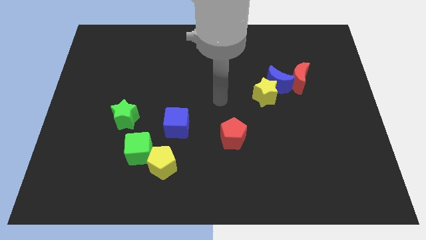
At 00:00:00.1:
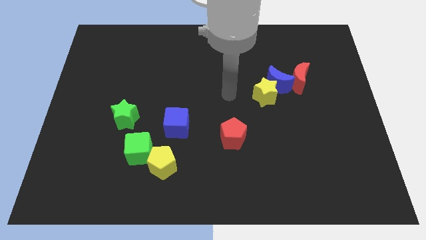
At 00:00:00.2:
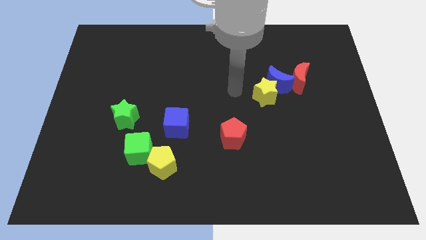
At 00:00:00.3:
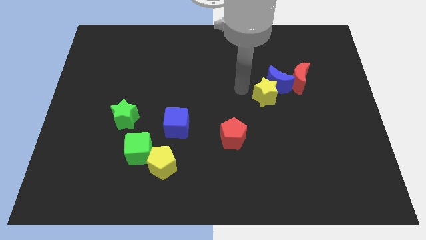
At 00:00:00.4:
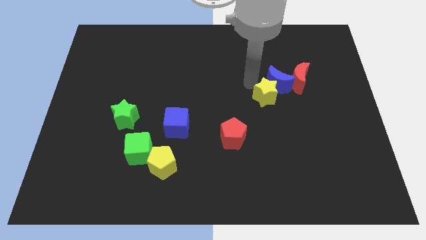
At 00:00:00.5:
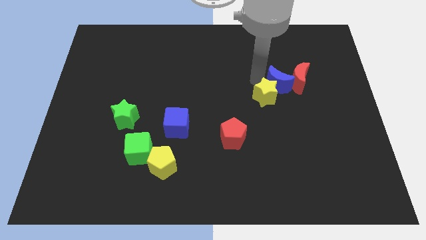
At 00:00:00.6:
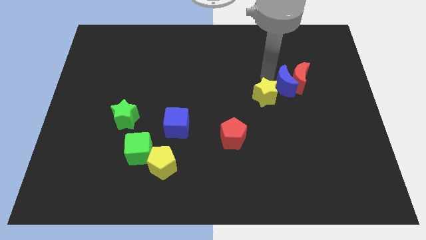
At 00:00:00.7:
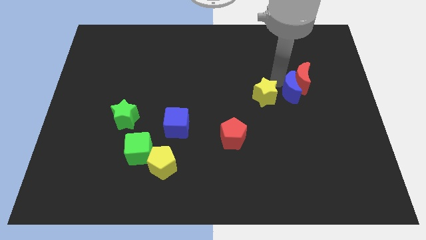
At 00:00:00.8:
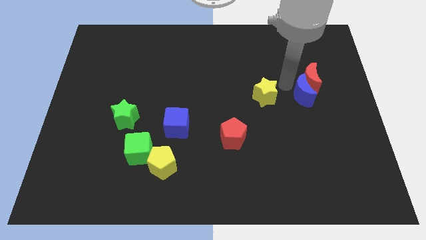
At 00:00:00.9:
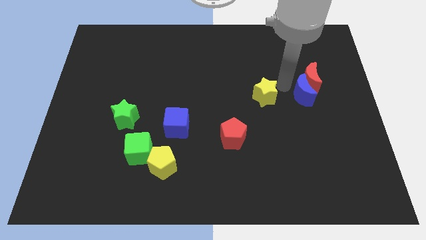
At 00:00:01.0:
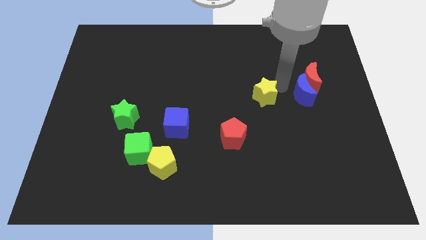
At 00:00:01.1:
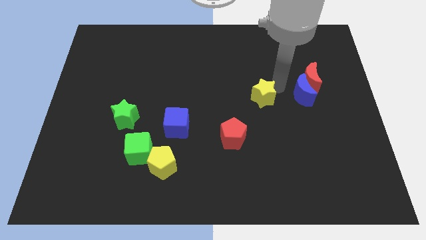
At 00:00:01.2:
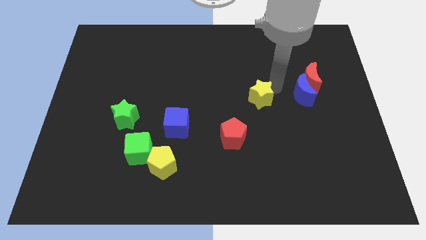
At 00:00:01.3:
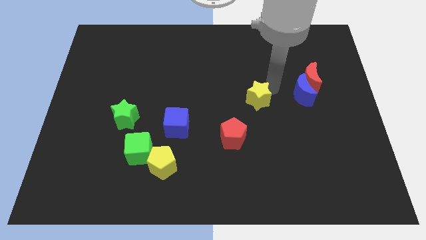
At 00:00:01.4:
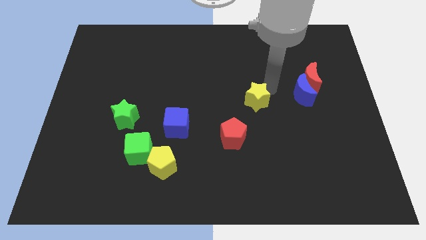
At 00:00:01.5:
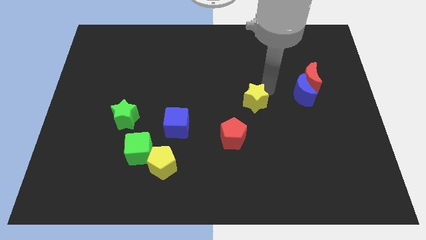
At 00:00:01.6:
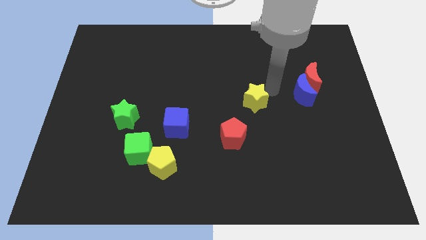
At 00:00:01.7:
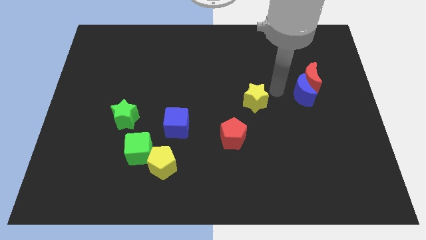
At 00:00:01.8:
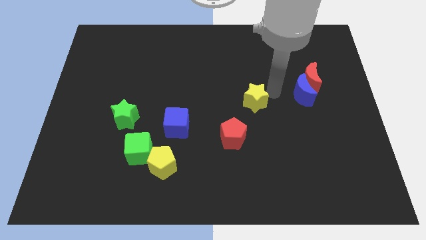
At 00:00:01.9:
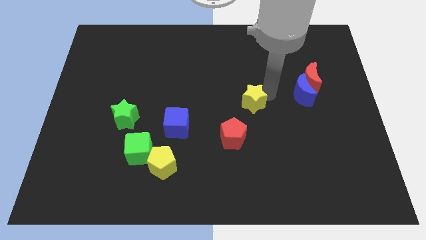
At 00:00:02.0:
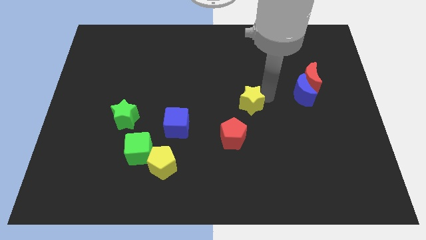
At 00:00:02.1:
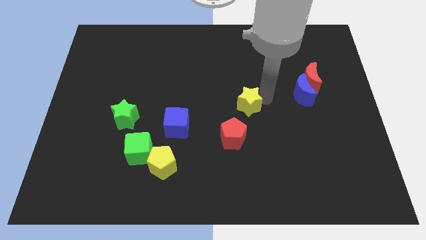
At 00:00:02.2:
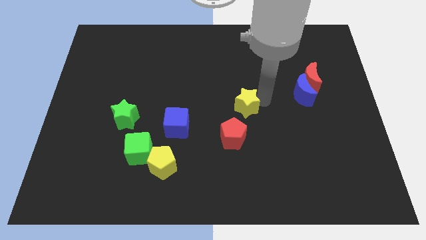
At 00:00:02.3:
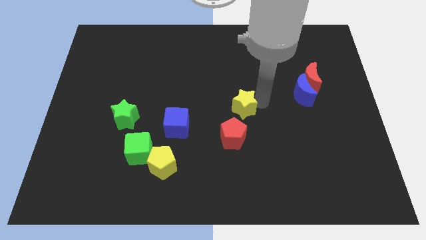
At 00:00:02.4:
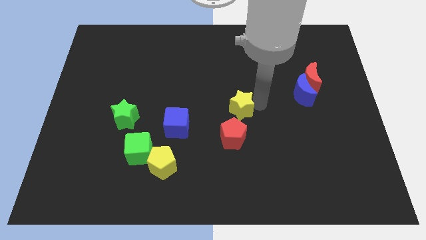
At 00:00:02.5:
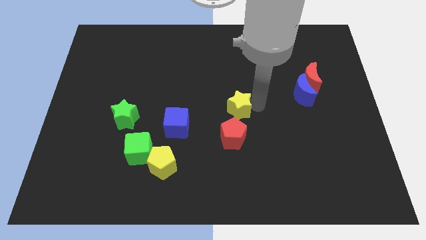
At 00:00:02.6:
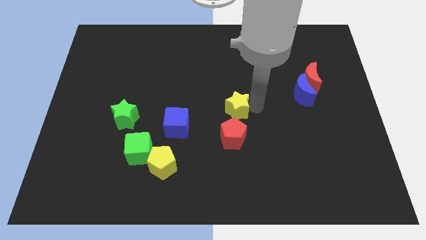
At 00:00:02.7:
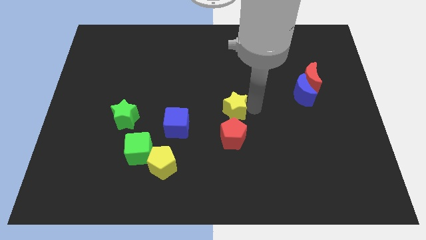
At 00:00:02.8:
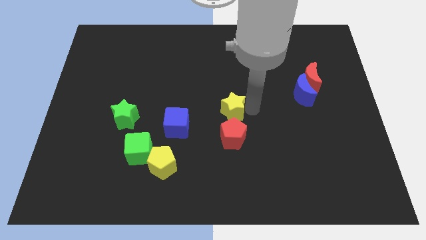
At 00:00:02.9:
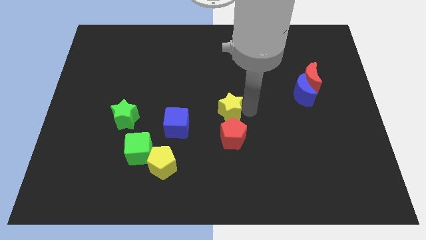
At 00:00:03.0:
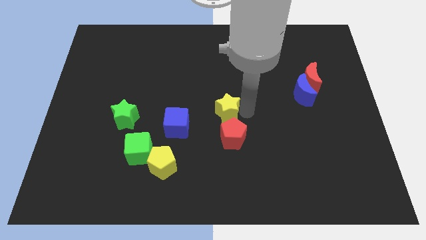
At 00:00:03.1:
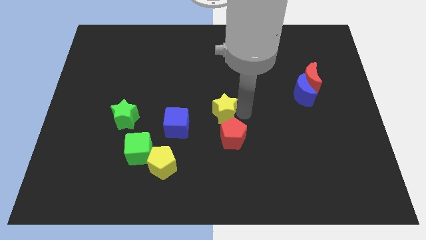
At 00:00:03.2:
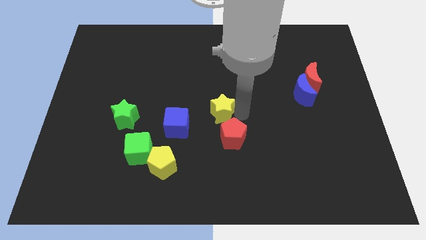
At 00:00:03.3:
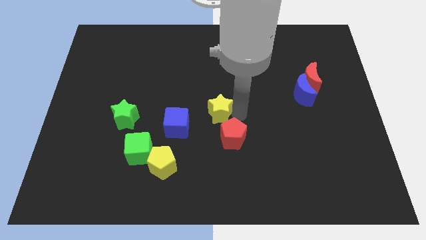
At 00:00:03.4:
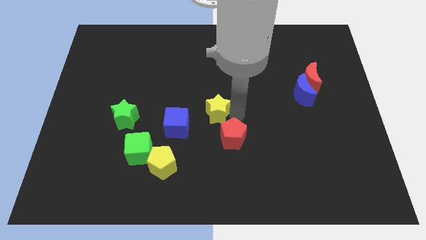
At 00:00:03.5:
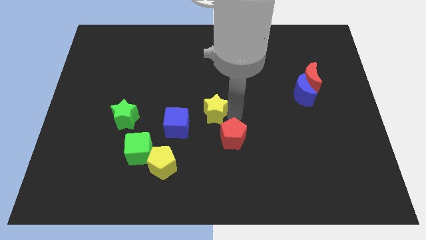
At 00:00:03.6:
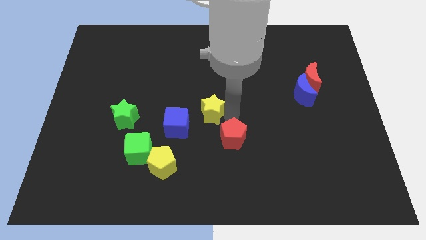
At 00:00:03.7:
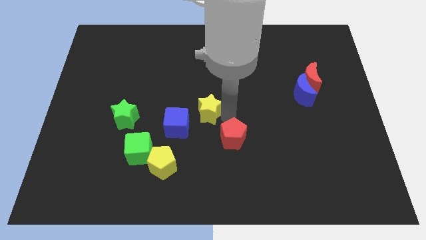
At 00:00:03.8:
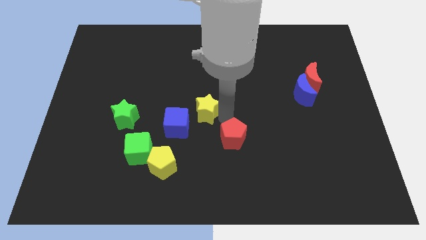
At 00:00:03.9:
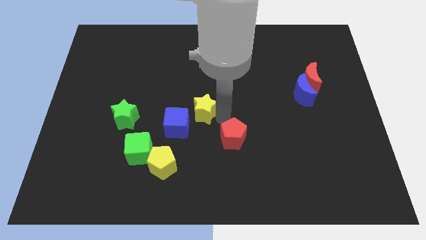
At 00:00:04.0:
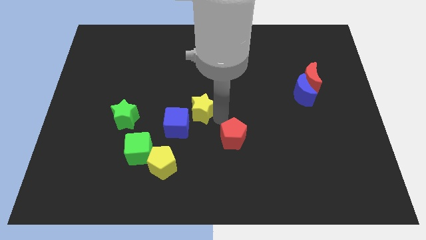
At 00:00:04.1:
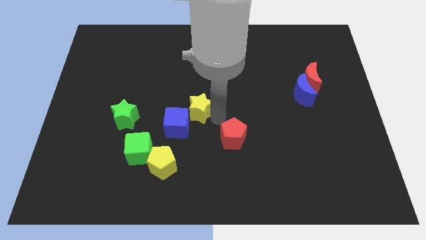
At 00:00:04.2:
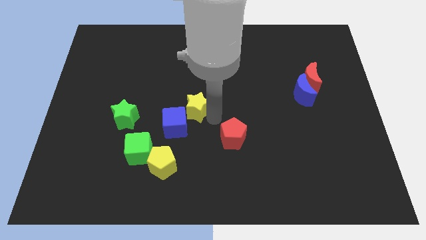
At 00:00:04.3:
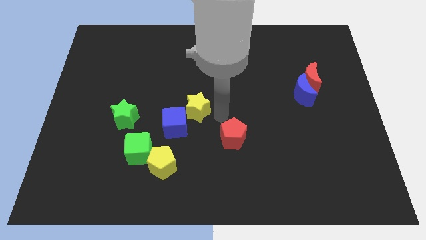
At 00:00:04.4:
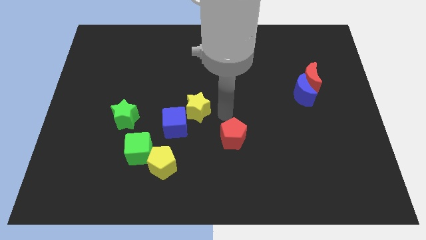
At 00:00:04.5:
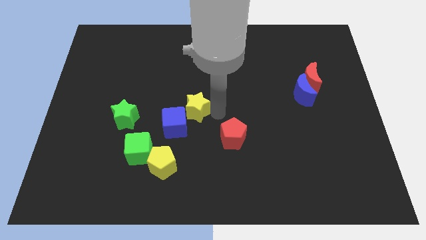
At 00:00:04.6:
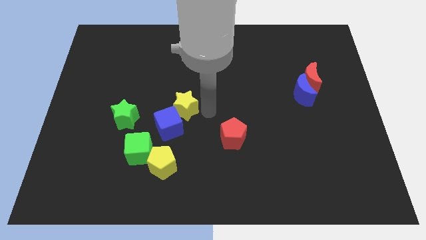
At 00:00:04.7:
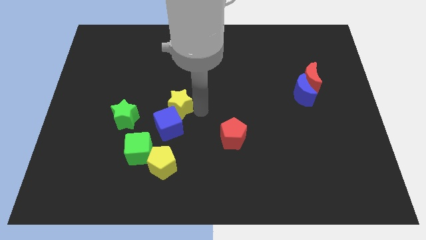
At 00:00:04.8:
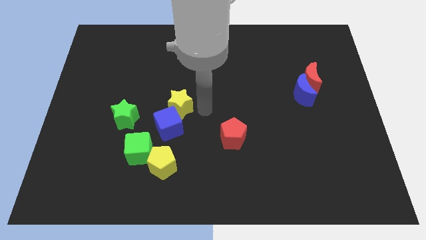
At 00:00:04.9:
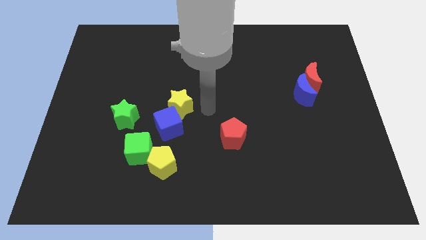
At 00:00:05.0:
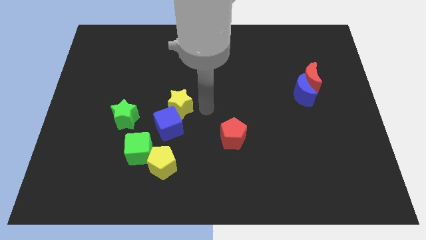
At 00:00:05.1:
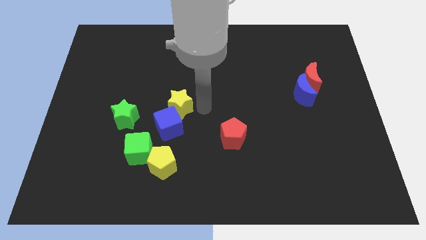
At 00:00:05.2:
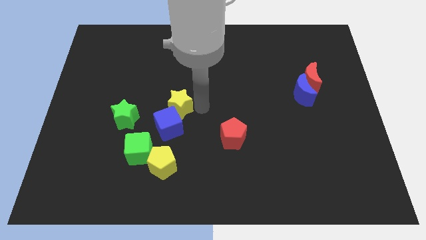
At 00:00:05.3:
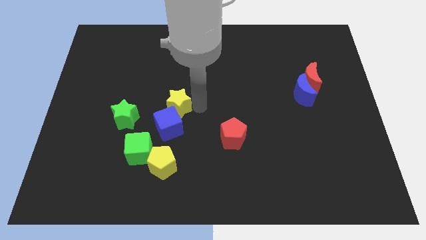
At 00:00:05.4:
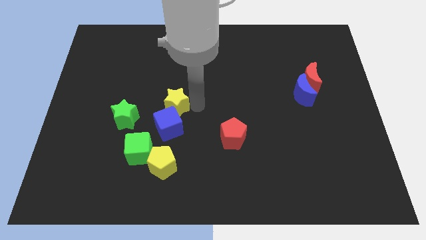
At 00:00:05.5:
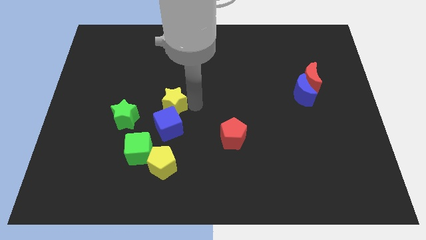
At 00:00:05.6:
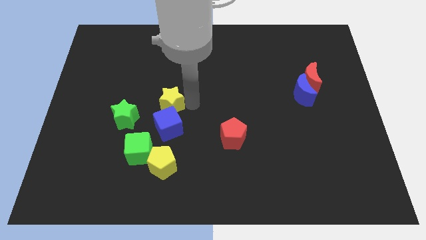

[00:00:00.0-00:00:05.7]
put the yellow star diagonally up and to the right of the green star

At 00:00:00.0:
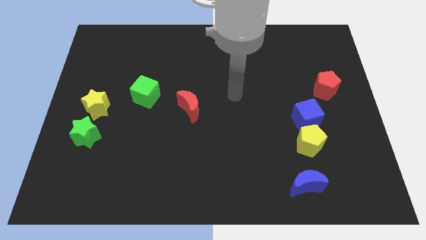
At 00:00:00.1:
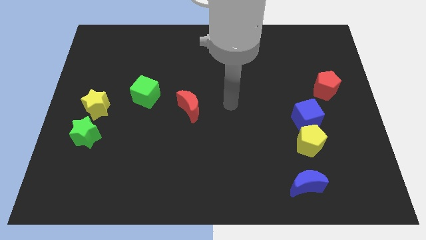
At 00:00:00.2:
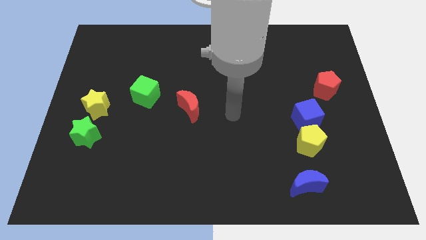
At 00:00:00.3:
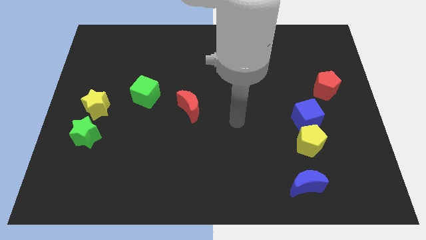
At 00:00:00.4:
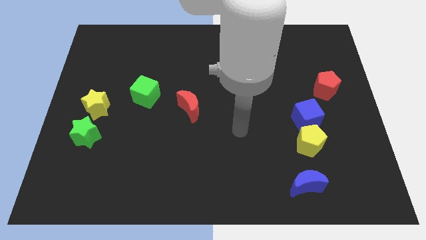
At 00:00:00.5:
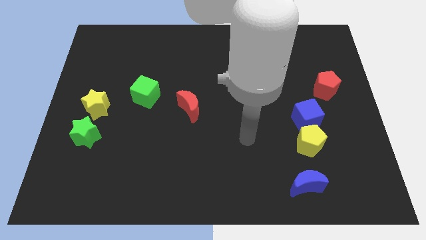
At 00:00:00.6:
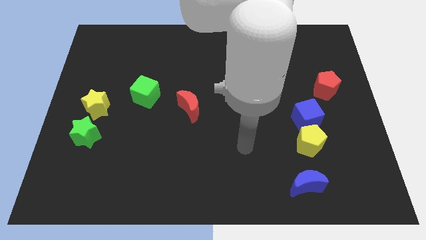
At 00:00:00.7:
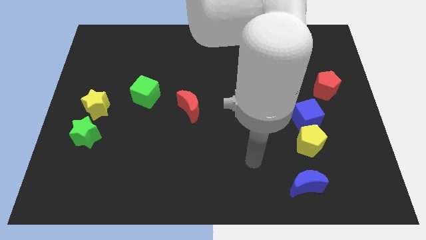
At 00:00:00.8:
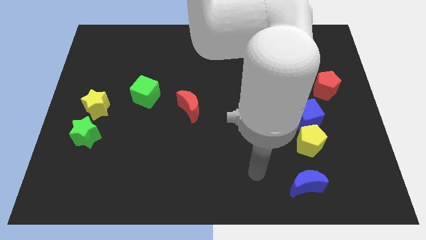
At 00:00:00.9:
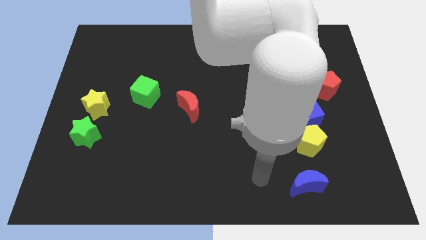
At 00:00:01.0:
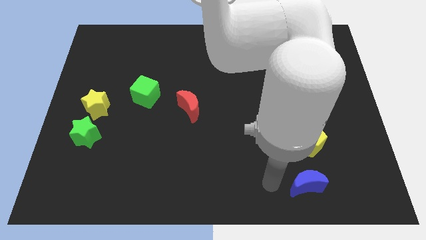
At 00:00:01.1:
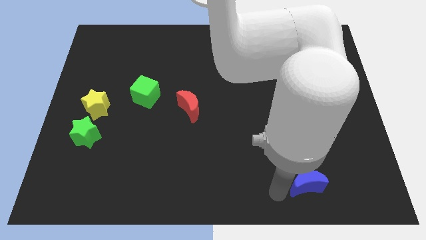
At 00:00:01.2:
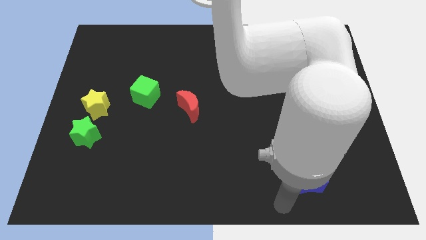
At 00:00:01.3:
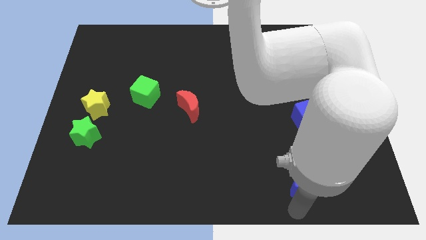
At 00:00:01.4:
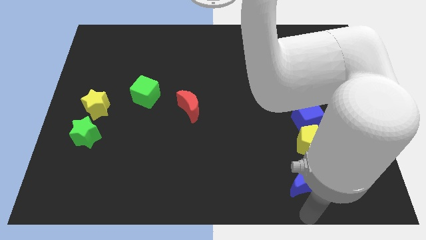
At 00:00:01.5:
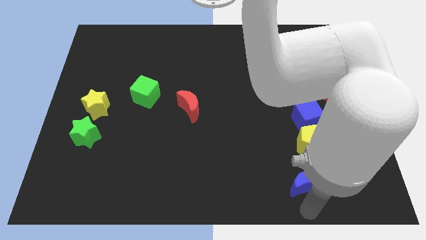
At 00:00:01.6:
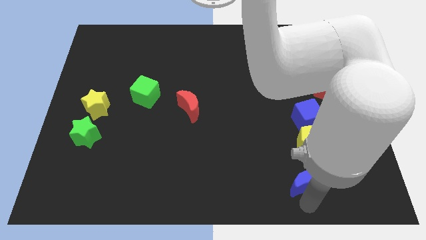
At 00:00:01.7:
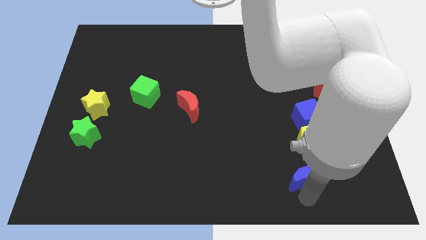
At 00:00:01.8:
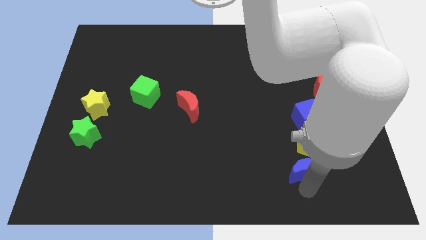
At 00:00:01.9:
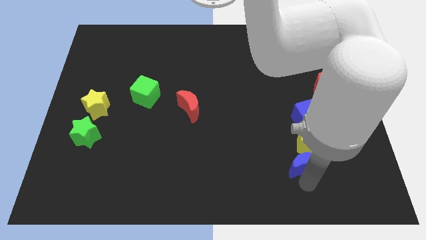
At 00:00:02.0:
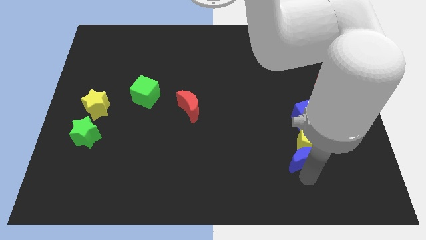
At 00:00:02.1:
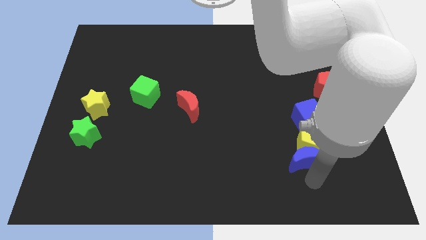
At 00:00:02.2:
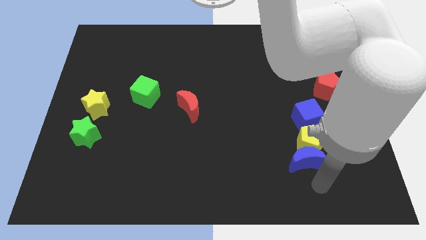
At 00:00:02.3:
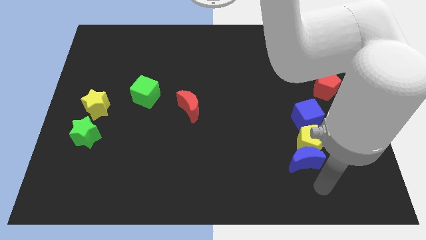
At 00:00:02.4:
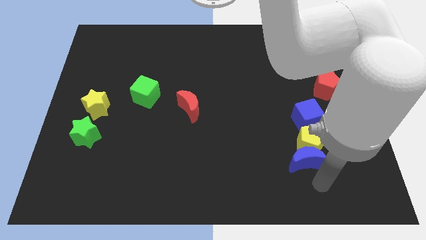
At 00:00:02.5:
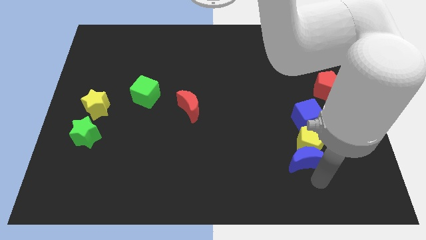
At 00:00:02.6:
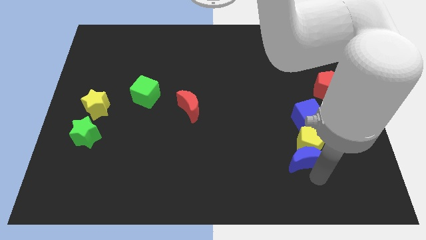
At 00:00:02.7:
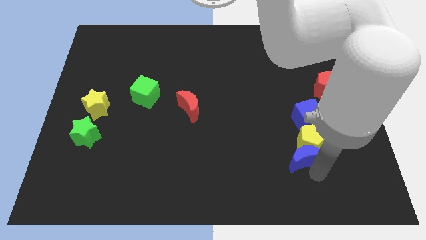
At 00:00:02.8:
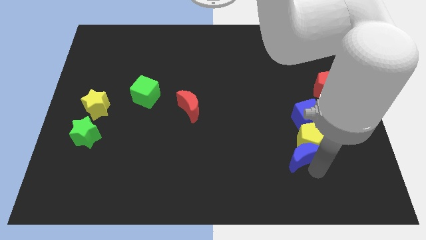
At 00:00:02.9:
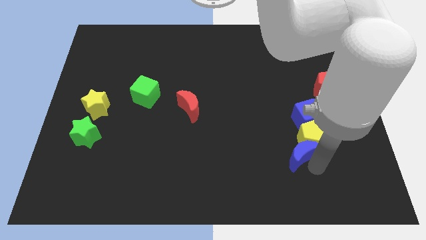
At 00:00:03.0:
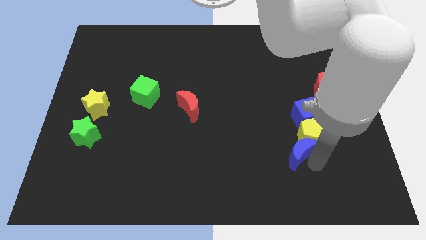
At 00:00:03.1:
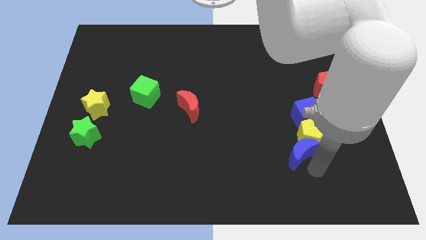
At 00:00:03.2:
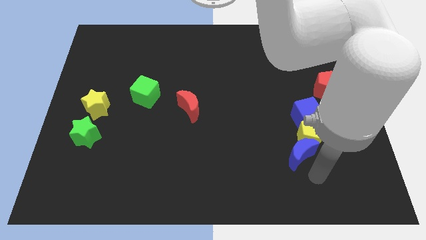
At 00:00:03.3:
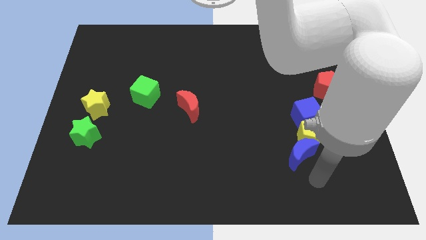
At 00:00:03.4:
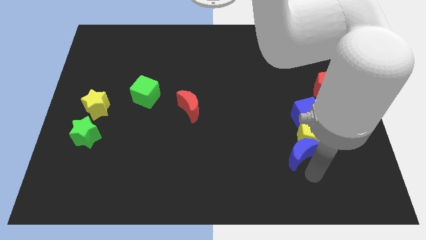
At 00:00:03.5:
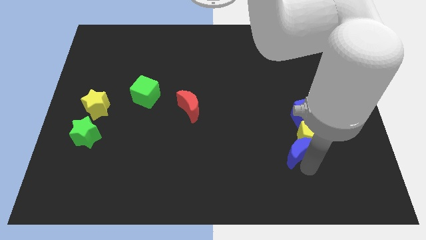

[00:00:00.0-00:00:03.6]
slide the blue moon to the bottom left side of the blue cube
